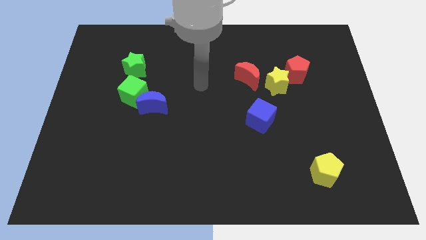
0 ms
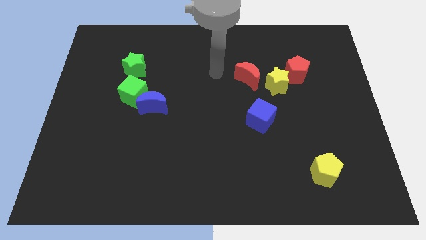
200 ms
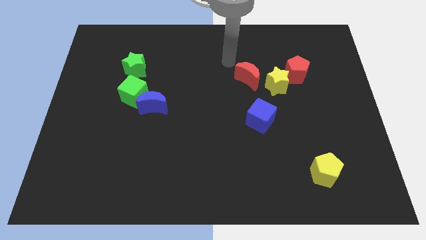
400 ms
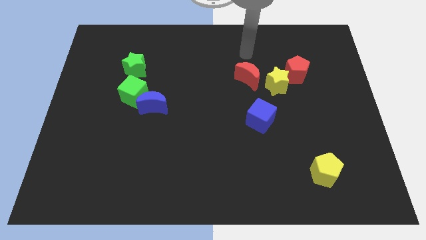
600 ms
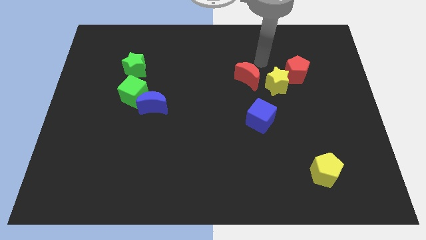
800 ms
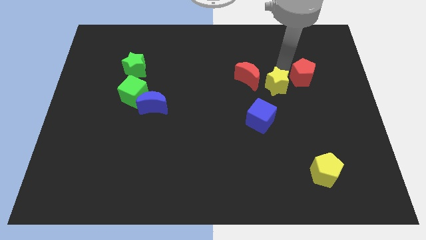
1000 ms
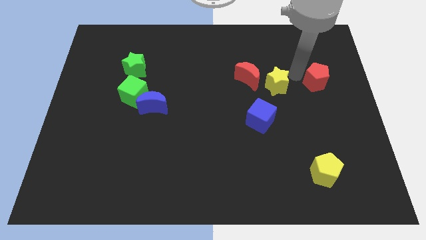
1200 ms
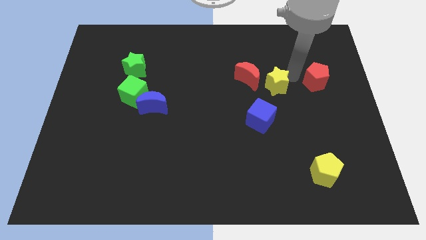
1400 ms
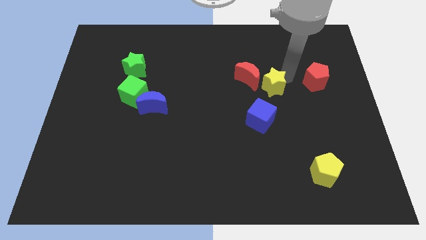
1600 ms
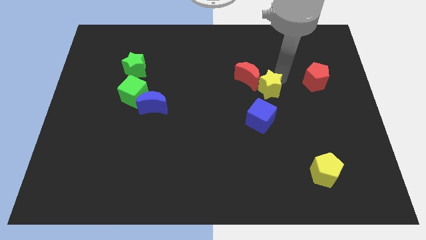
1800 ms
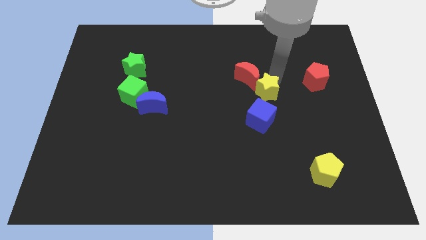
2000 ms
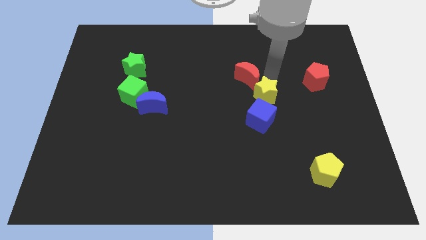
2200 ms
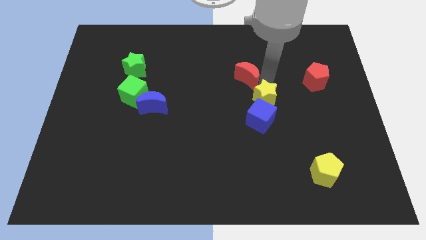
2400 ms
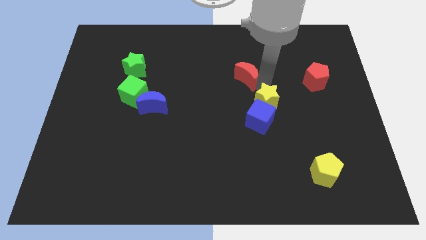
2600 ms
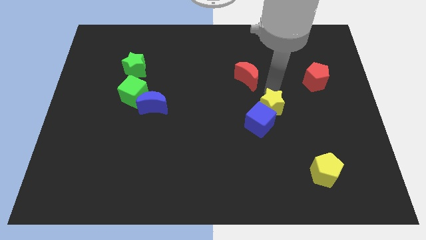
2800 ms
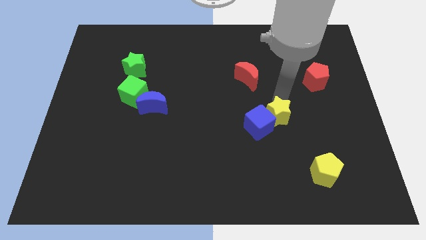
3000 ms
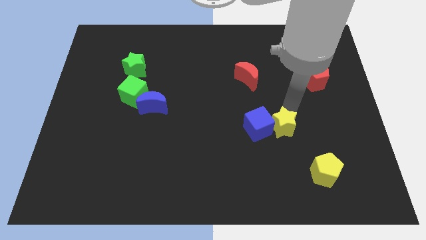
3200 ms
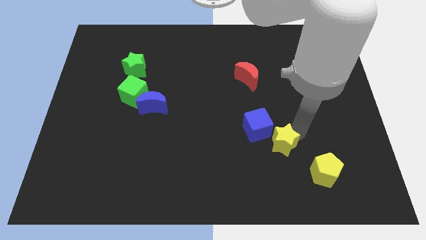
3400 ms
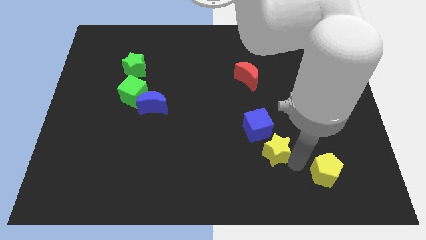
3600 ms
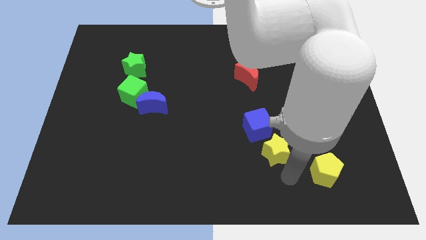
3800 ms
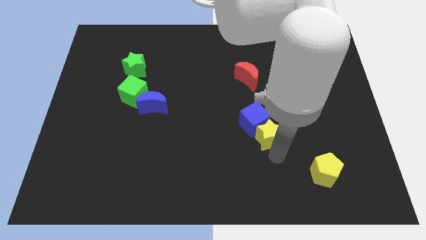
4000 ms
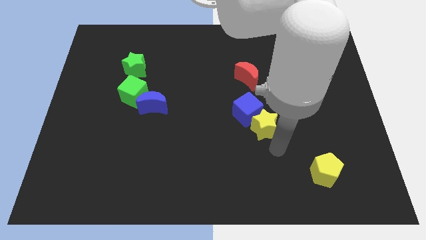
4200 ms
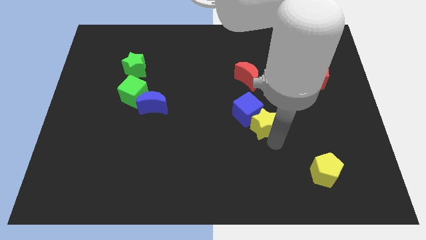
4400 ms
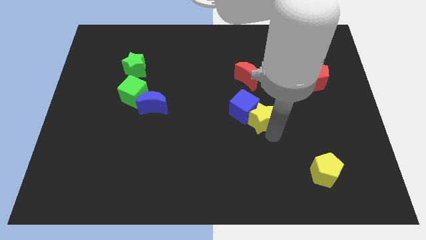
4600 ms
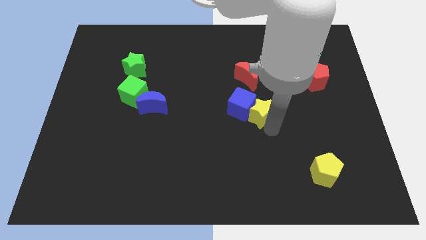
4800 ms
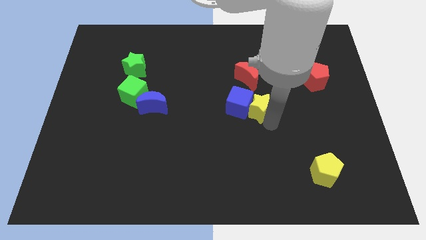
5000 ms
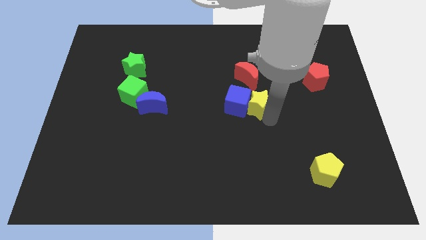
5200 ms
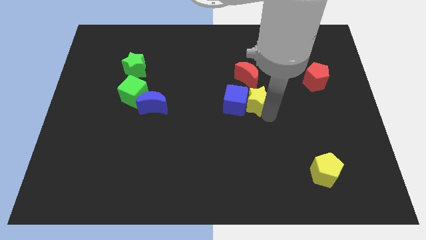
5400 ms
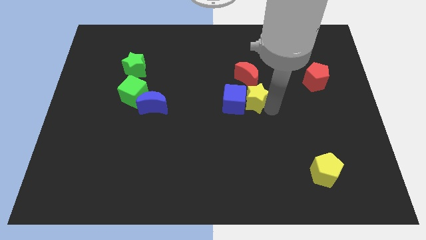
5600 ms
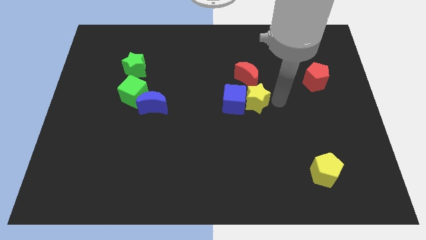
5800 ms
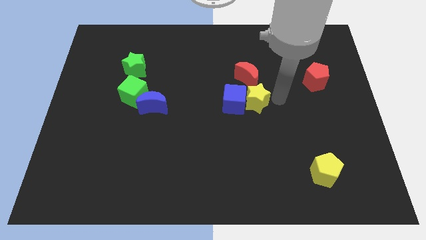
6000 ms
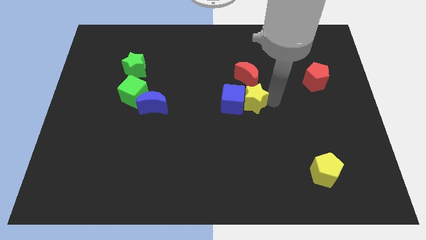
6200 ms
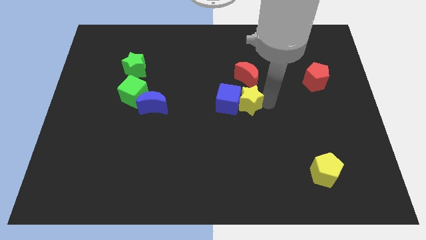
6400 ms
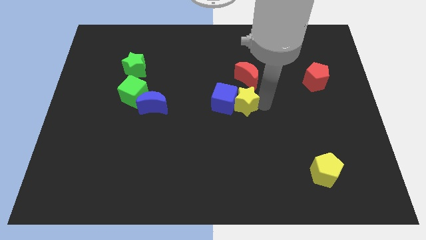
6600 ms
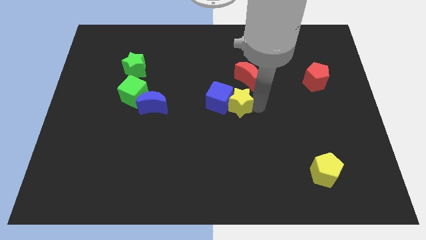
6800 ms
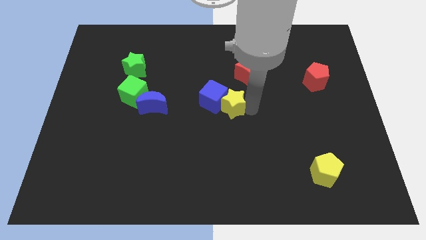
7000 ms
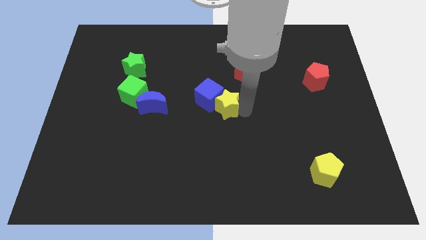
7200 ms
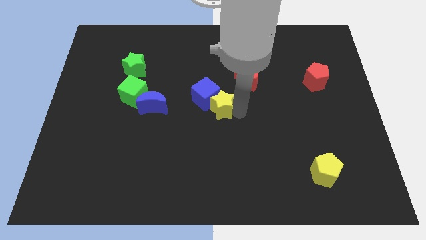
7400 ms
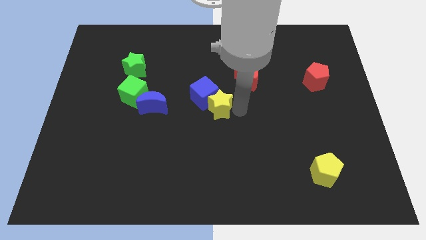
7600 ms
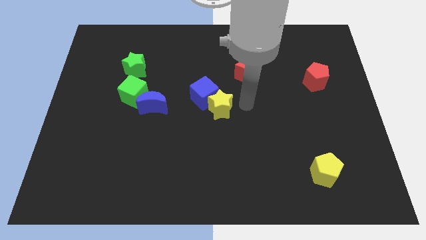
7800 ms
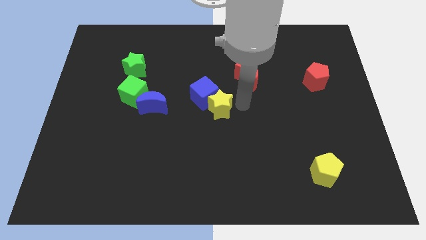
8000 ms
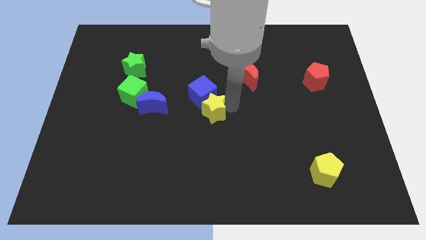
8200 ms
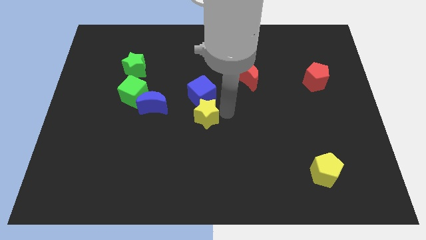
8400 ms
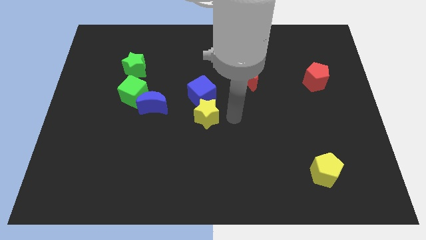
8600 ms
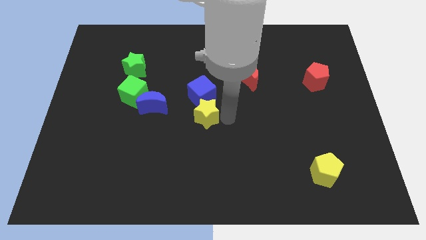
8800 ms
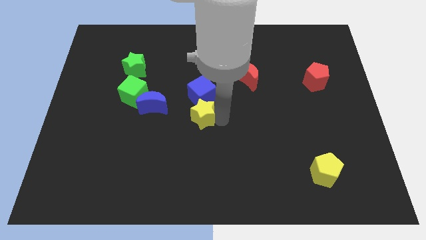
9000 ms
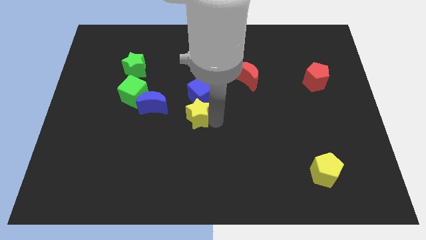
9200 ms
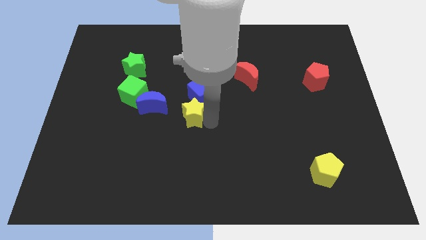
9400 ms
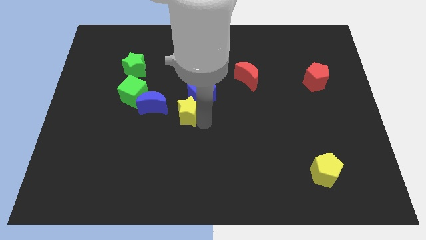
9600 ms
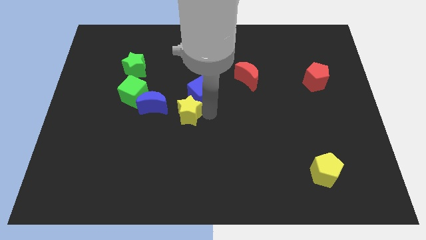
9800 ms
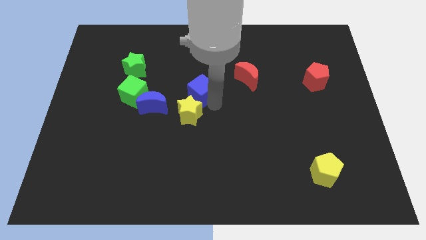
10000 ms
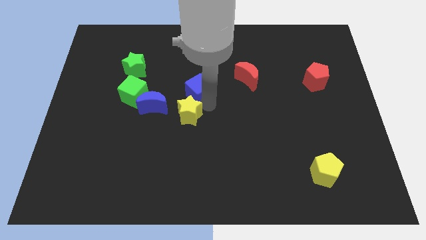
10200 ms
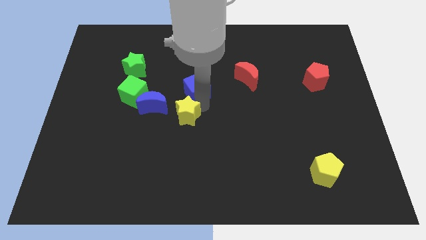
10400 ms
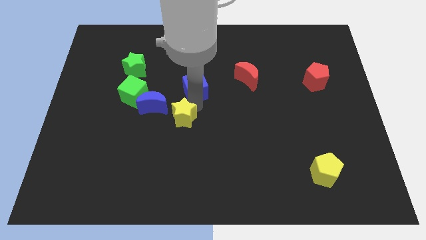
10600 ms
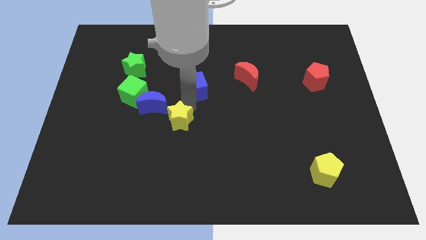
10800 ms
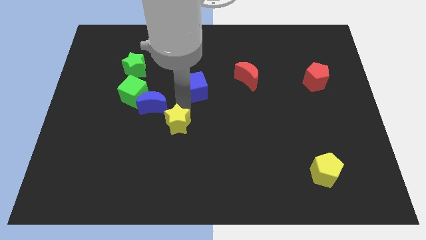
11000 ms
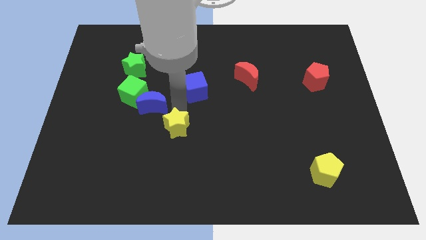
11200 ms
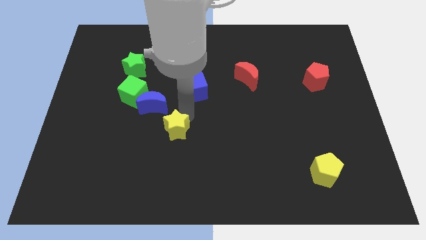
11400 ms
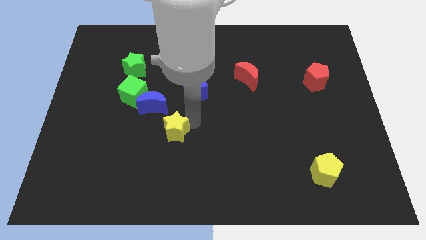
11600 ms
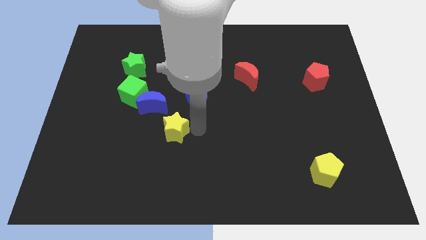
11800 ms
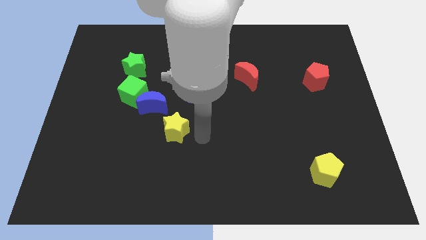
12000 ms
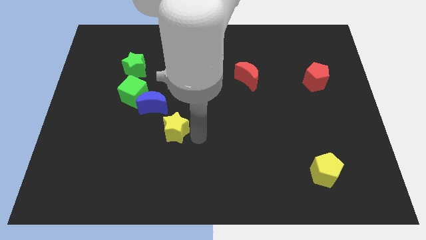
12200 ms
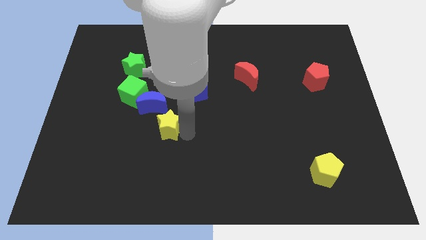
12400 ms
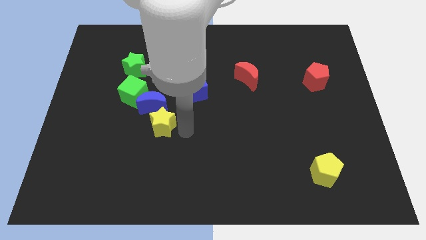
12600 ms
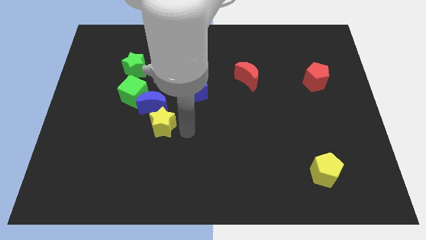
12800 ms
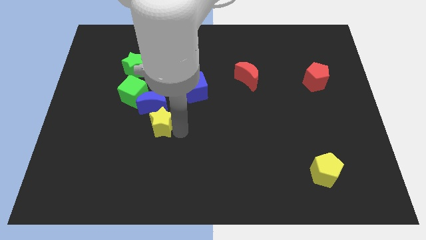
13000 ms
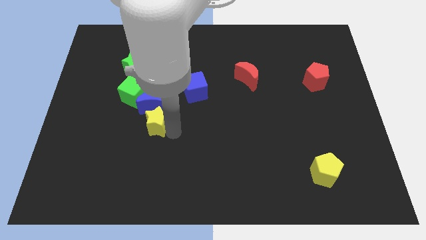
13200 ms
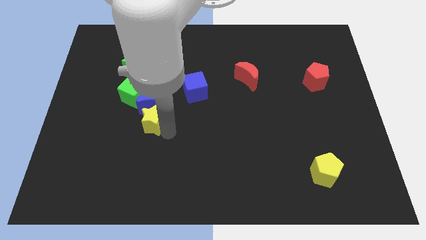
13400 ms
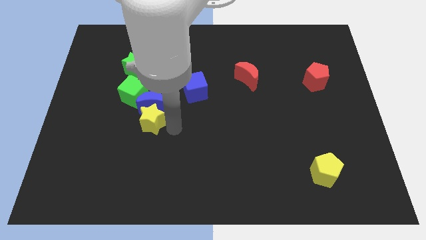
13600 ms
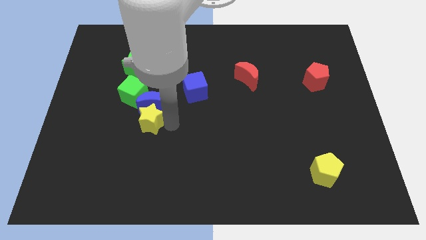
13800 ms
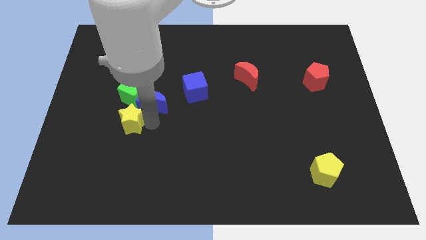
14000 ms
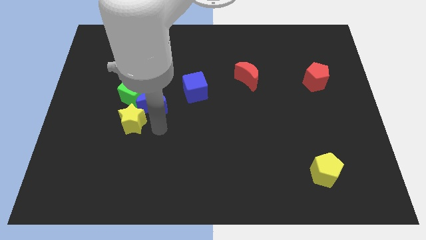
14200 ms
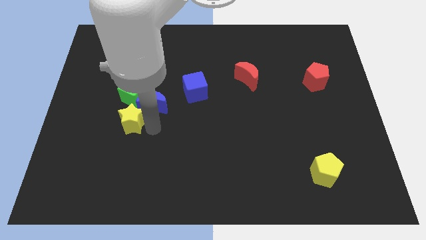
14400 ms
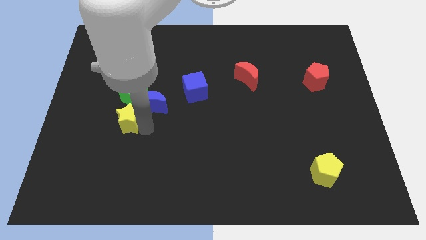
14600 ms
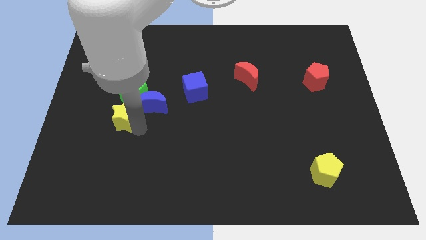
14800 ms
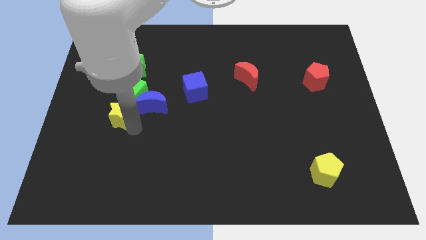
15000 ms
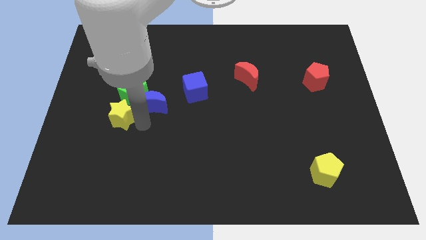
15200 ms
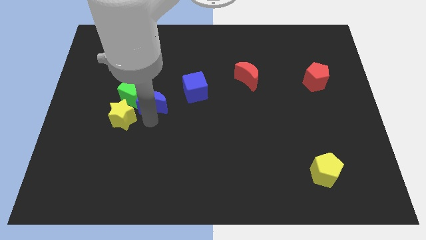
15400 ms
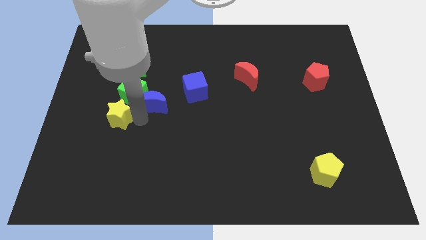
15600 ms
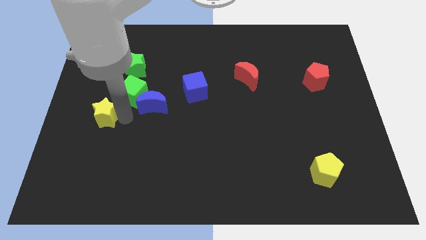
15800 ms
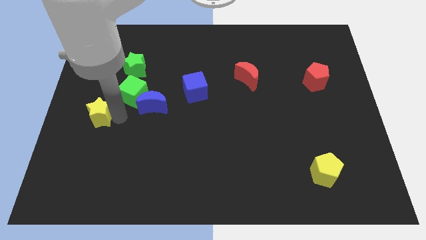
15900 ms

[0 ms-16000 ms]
slide the yellow star to the left side
